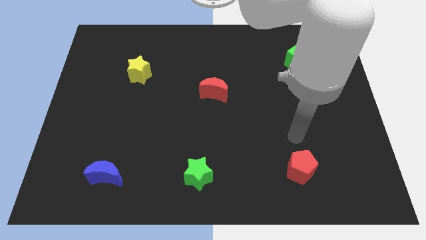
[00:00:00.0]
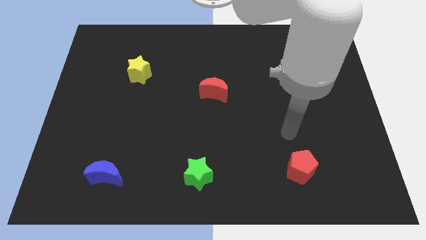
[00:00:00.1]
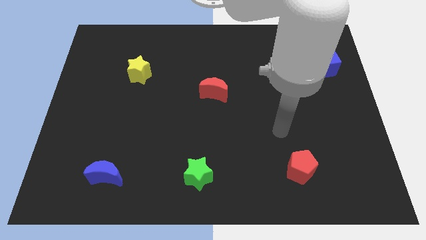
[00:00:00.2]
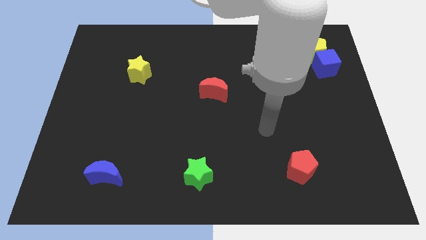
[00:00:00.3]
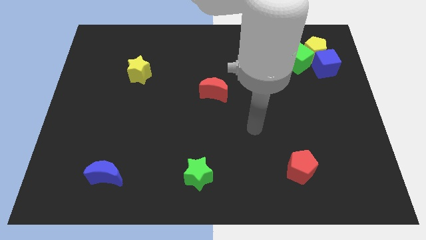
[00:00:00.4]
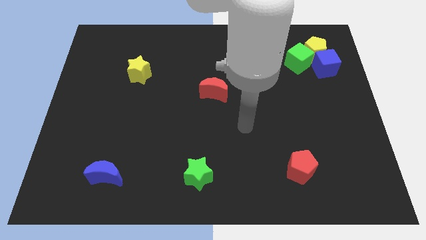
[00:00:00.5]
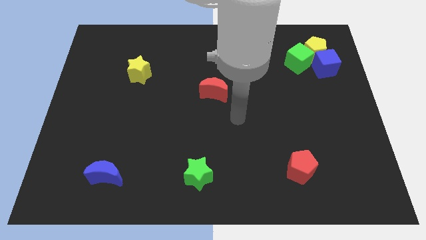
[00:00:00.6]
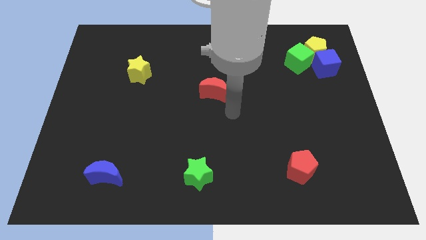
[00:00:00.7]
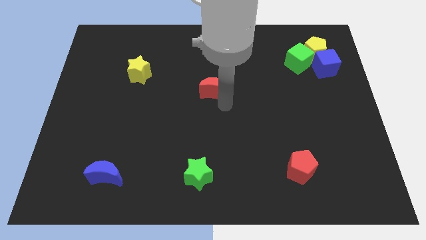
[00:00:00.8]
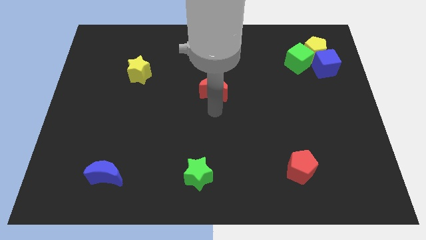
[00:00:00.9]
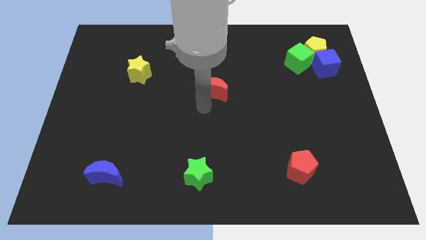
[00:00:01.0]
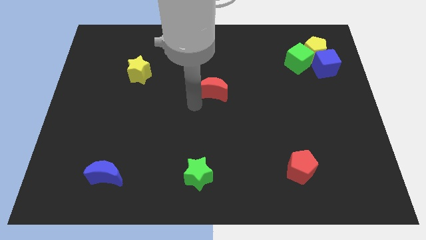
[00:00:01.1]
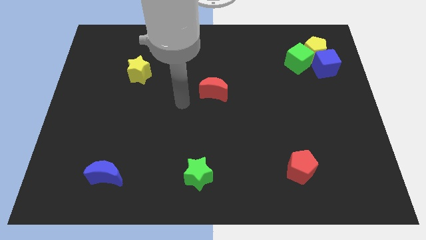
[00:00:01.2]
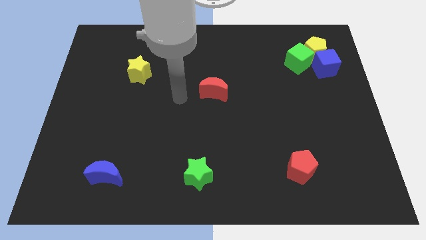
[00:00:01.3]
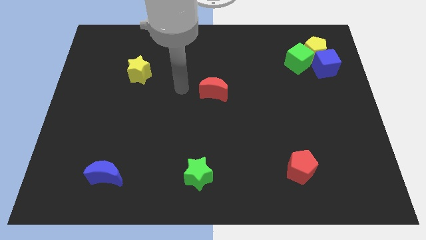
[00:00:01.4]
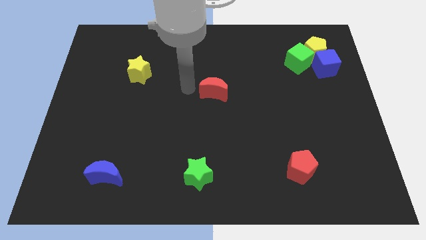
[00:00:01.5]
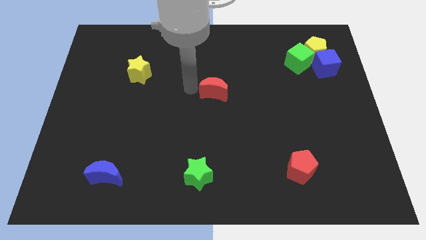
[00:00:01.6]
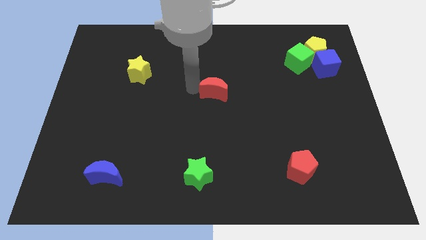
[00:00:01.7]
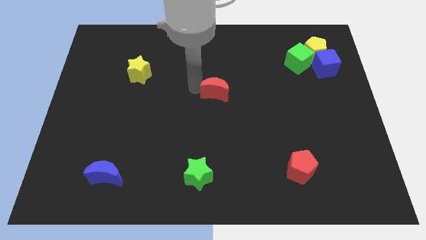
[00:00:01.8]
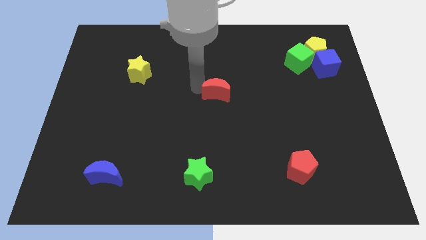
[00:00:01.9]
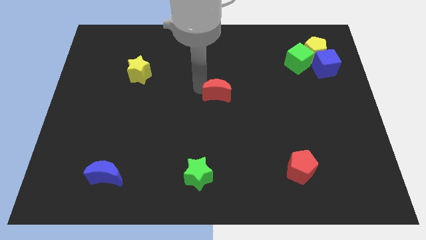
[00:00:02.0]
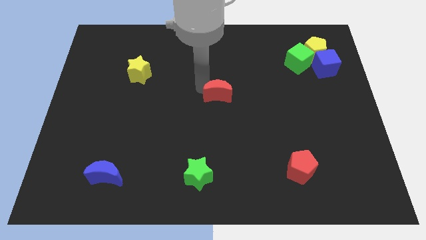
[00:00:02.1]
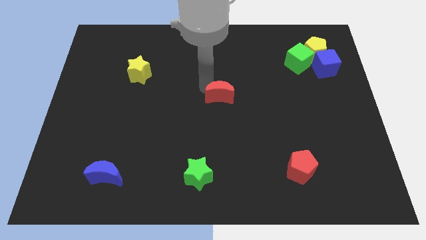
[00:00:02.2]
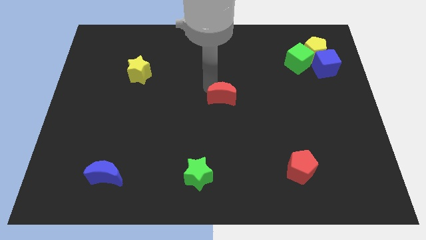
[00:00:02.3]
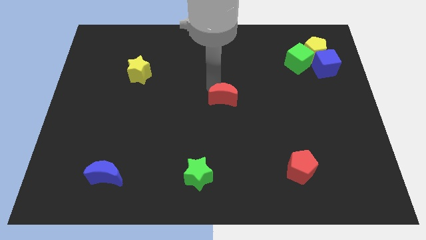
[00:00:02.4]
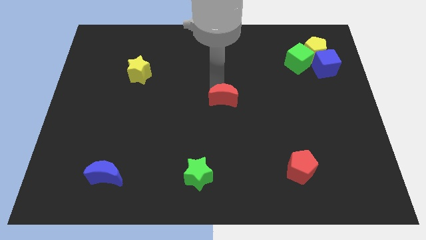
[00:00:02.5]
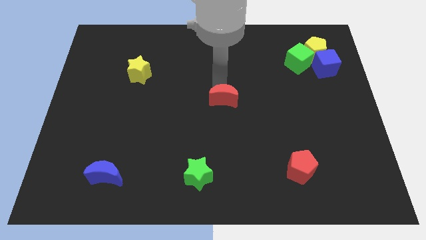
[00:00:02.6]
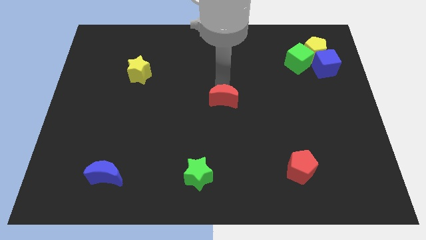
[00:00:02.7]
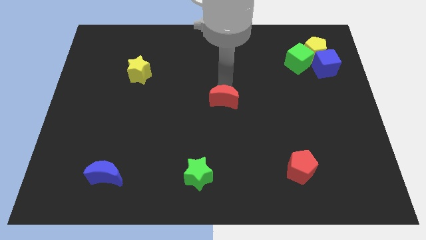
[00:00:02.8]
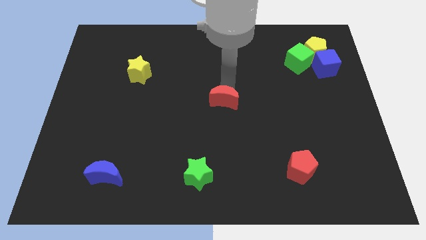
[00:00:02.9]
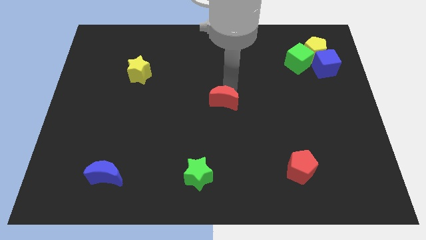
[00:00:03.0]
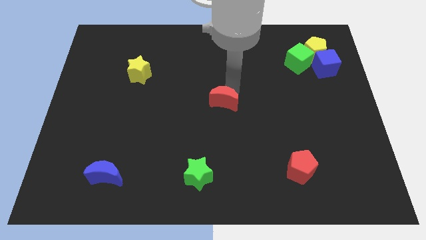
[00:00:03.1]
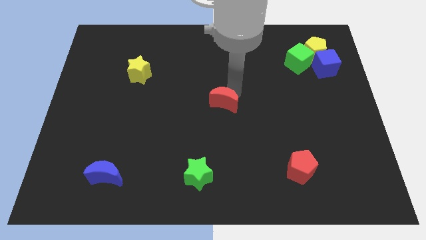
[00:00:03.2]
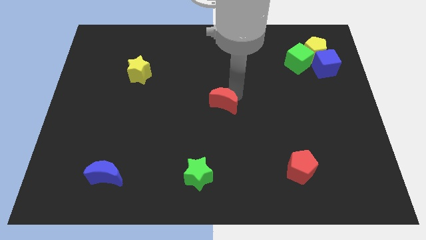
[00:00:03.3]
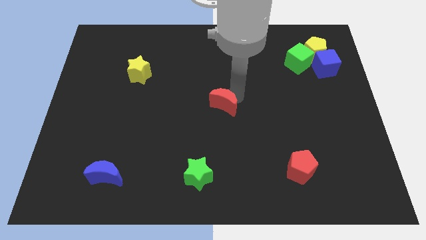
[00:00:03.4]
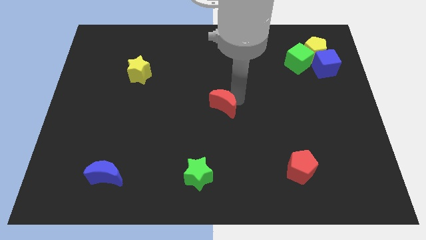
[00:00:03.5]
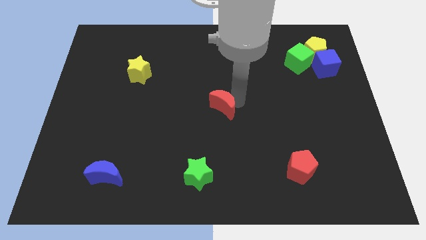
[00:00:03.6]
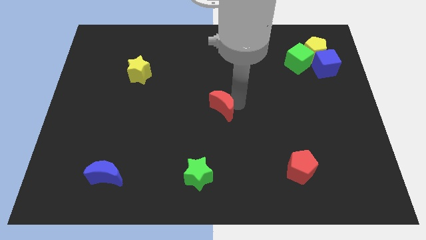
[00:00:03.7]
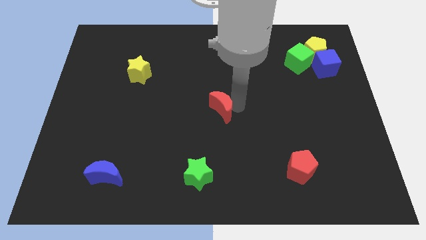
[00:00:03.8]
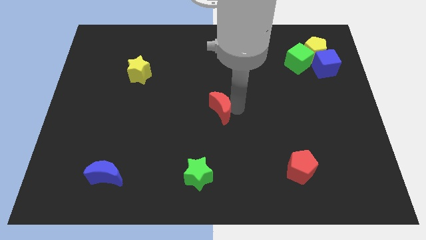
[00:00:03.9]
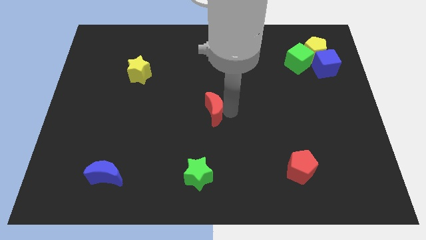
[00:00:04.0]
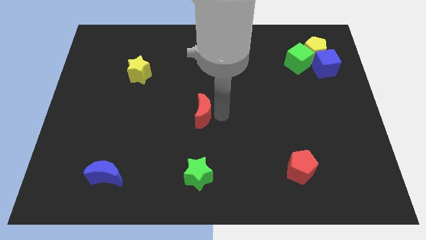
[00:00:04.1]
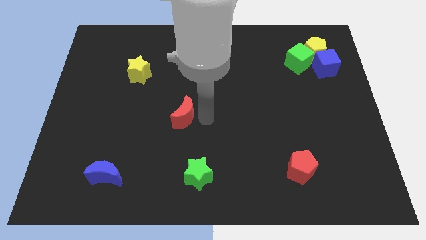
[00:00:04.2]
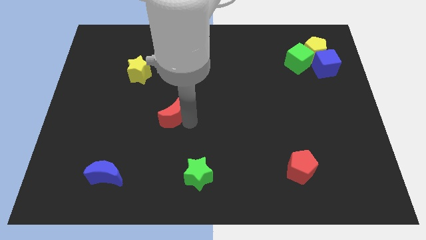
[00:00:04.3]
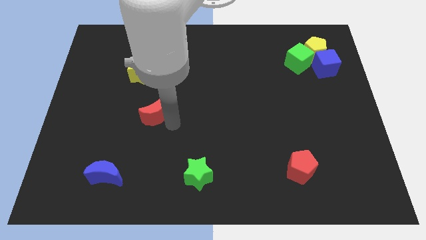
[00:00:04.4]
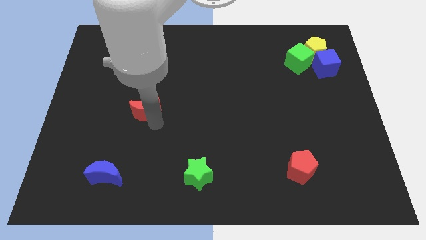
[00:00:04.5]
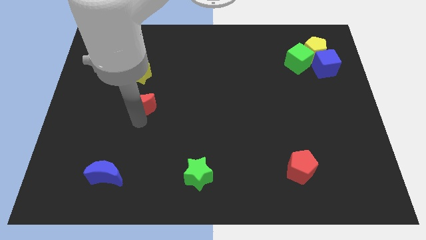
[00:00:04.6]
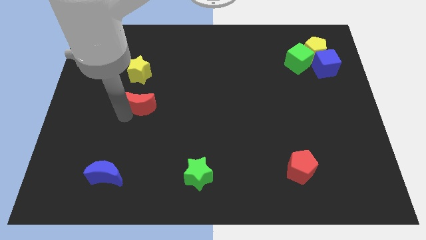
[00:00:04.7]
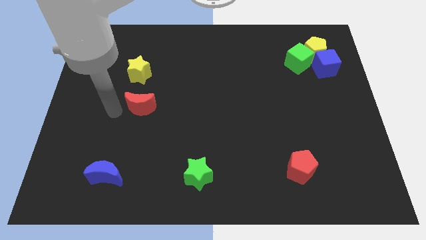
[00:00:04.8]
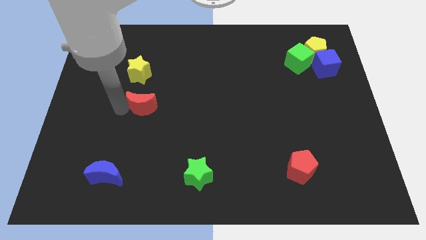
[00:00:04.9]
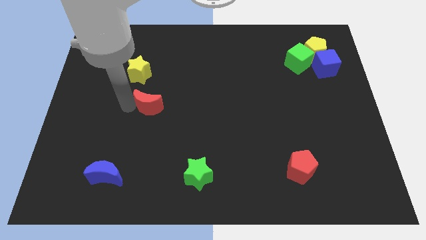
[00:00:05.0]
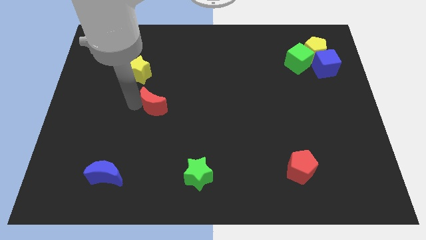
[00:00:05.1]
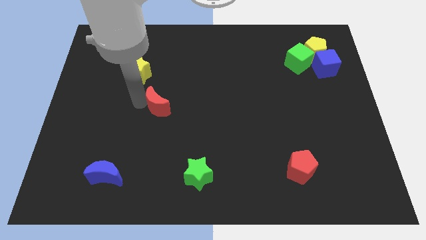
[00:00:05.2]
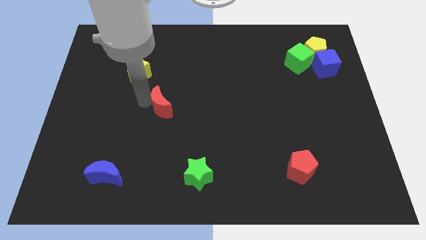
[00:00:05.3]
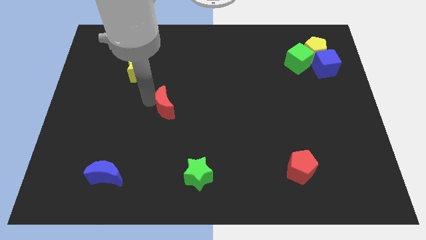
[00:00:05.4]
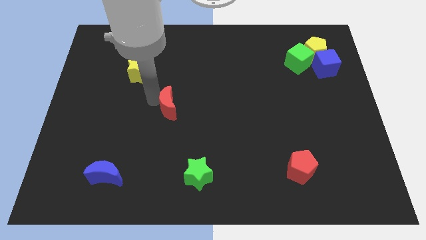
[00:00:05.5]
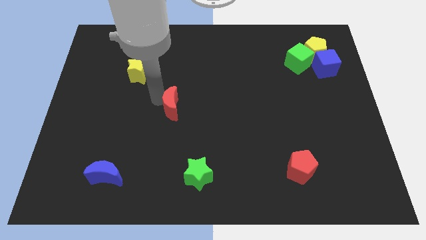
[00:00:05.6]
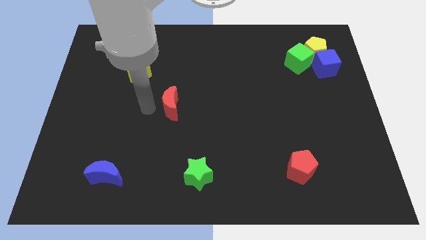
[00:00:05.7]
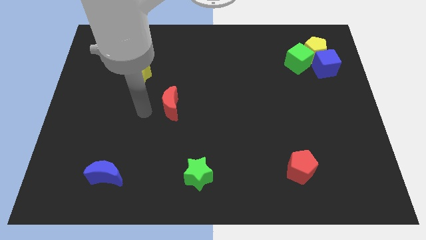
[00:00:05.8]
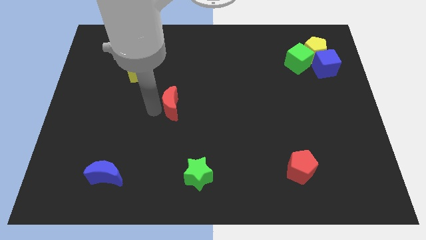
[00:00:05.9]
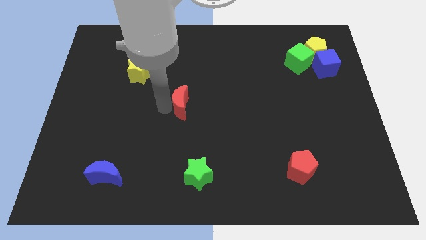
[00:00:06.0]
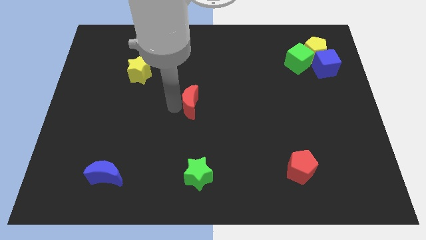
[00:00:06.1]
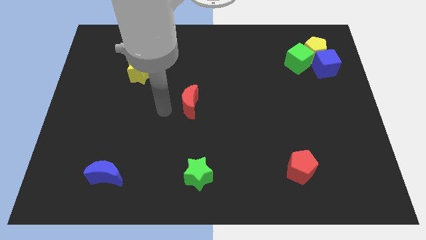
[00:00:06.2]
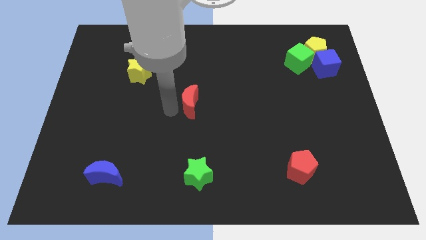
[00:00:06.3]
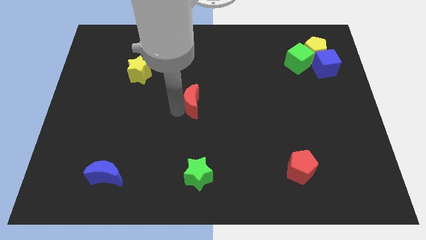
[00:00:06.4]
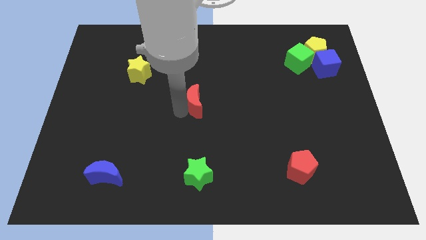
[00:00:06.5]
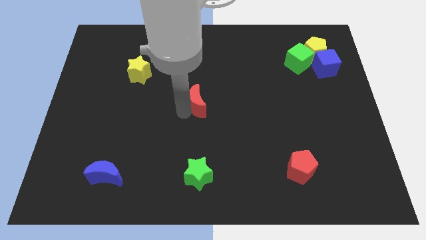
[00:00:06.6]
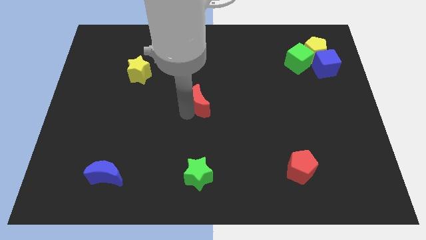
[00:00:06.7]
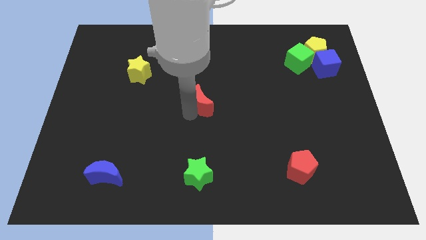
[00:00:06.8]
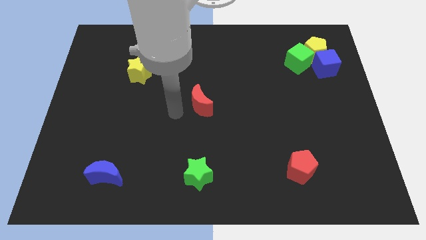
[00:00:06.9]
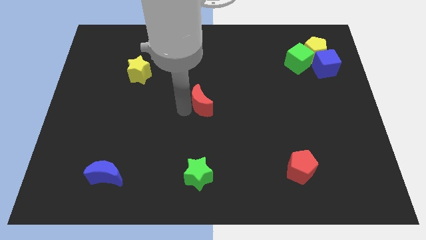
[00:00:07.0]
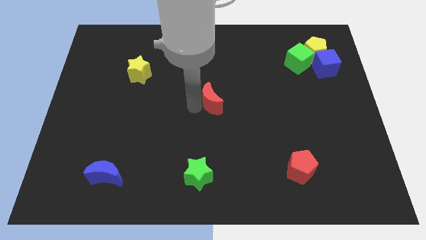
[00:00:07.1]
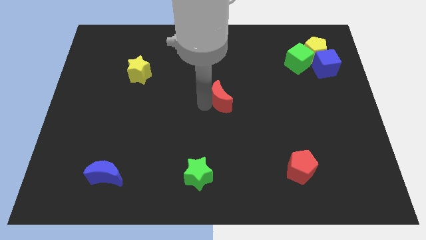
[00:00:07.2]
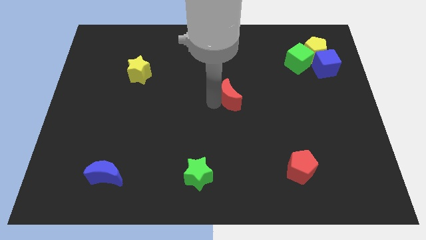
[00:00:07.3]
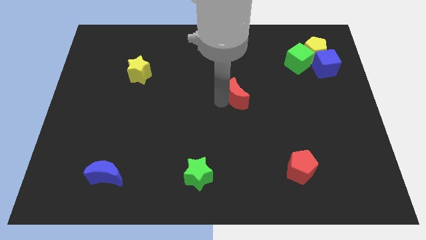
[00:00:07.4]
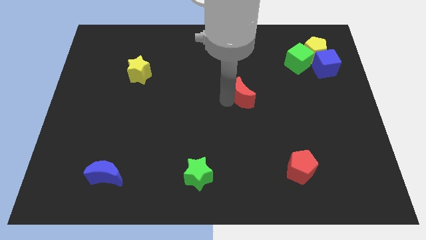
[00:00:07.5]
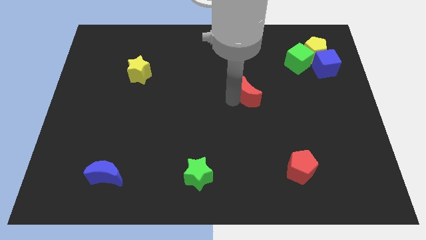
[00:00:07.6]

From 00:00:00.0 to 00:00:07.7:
slightly push the red moon to the right
